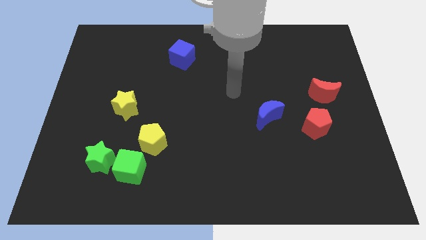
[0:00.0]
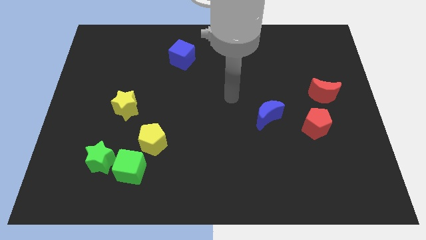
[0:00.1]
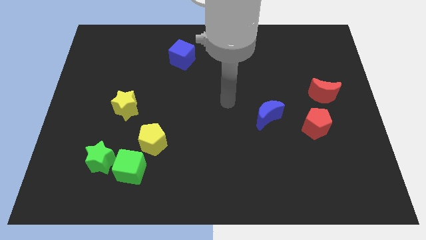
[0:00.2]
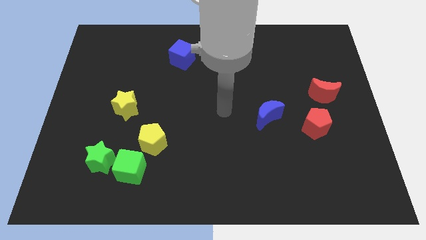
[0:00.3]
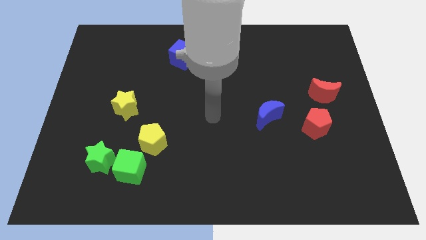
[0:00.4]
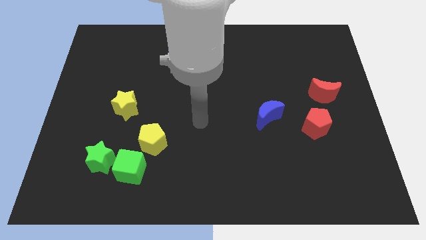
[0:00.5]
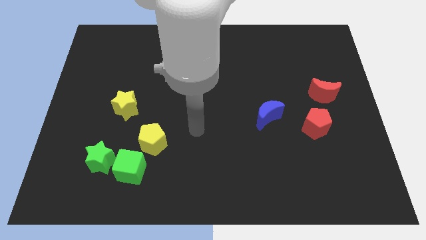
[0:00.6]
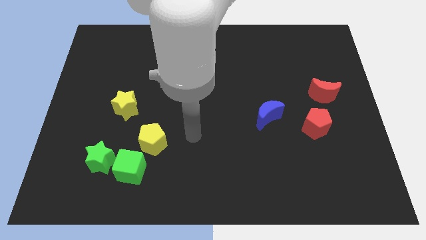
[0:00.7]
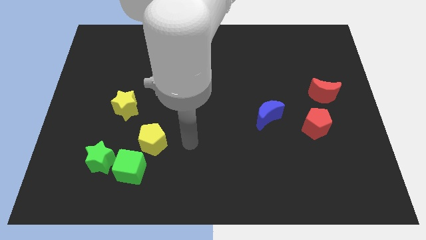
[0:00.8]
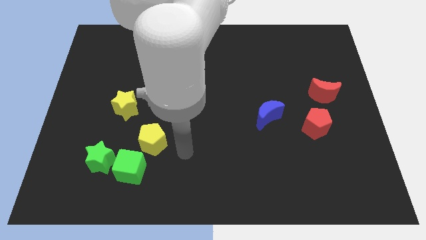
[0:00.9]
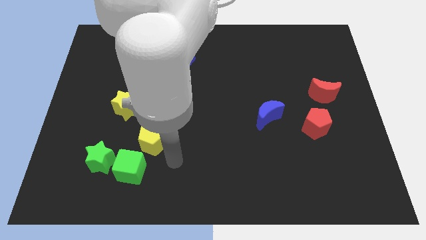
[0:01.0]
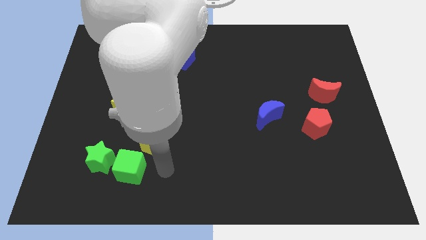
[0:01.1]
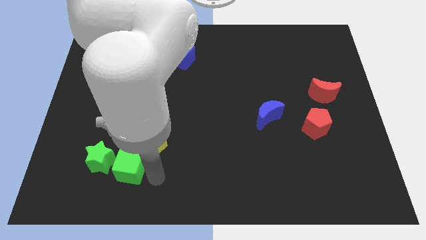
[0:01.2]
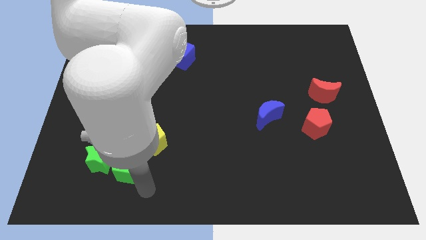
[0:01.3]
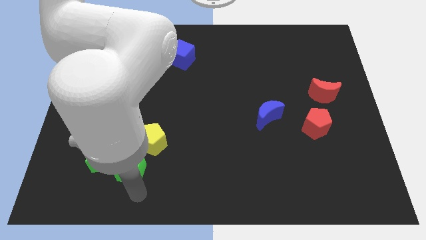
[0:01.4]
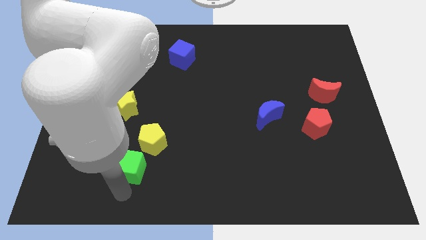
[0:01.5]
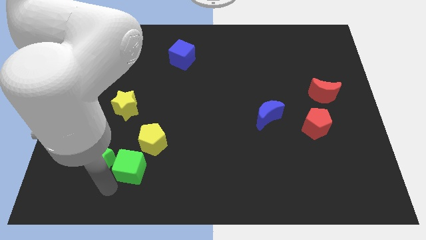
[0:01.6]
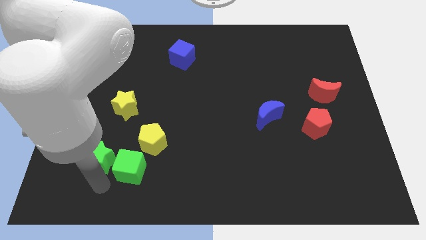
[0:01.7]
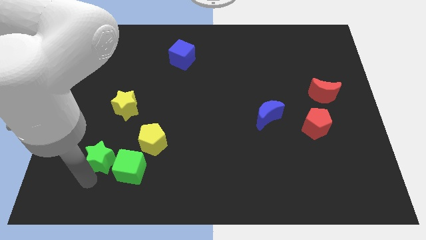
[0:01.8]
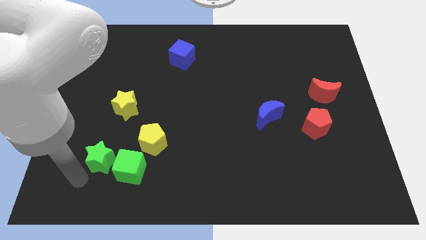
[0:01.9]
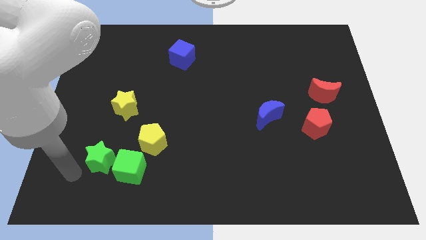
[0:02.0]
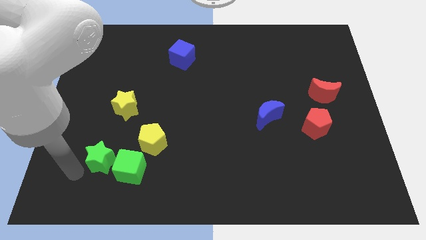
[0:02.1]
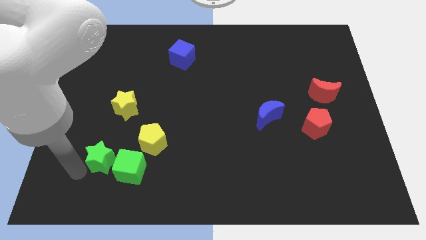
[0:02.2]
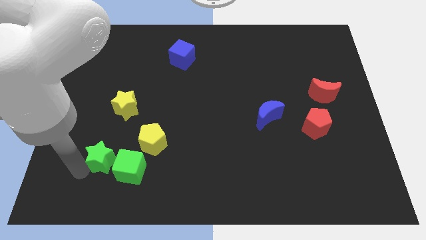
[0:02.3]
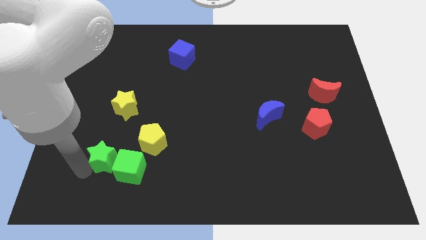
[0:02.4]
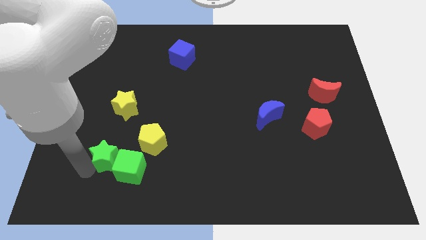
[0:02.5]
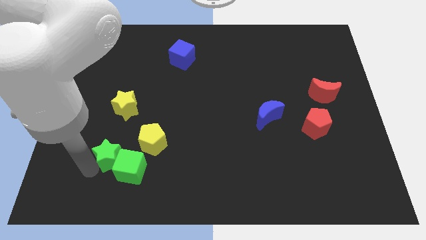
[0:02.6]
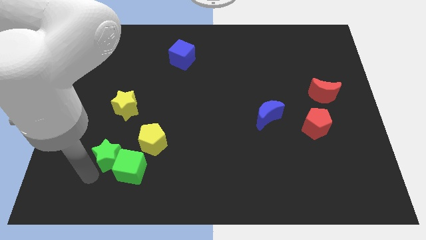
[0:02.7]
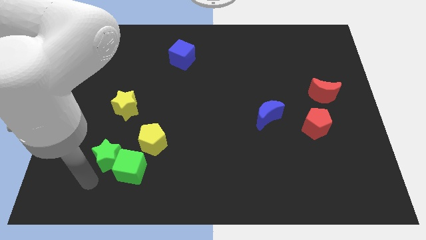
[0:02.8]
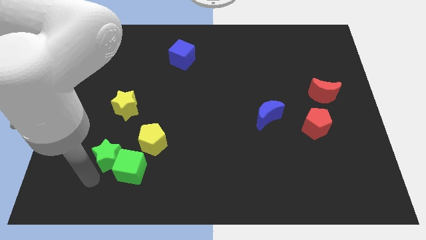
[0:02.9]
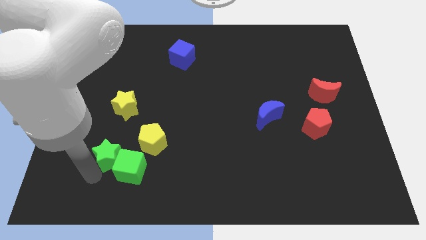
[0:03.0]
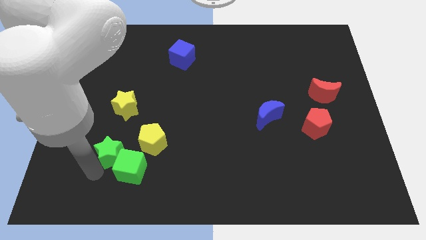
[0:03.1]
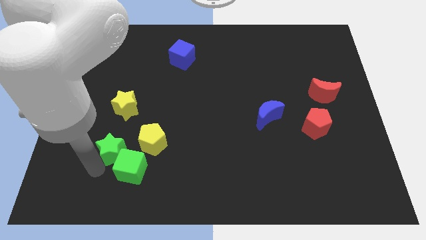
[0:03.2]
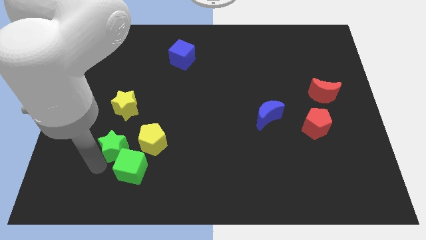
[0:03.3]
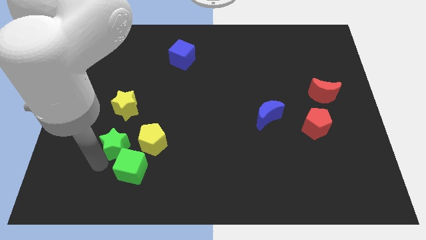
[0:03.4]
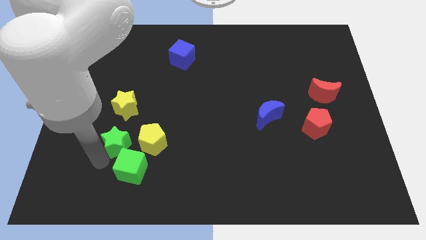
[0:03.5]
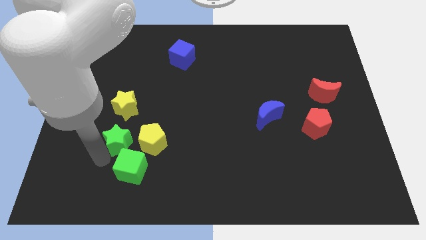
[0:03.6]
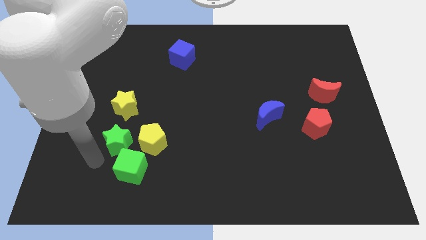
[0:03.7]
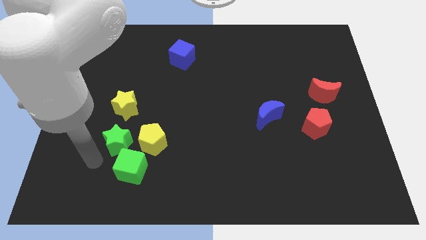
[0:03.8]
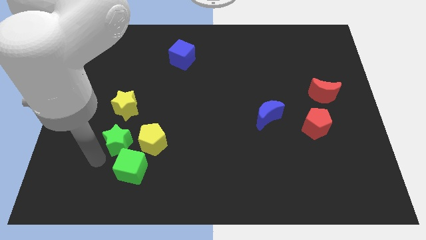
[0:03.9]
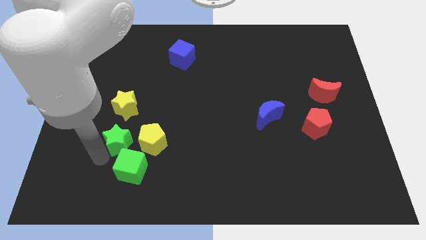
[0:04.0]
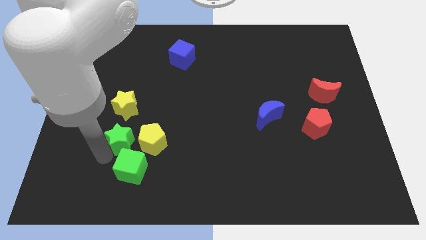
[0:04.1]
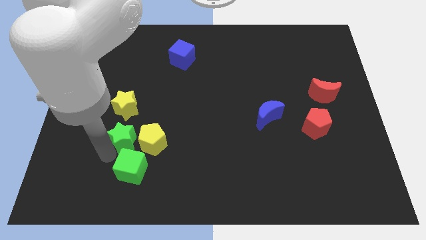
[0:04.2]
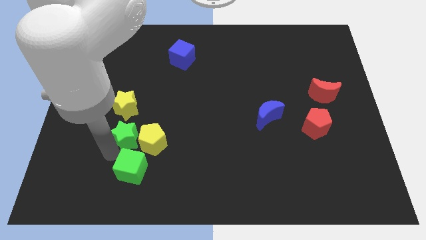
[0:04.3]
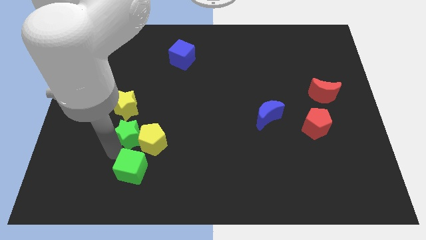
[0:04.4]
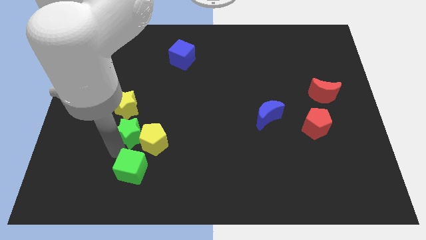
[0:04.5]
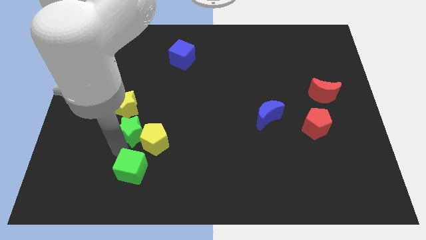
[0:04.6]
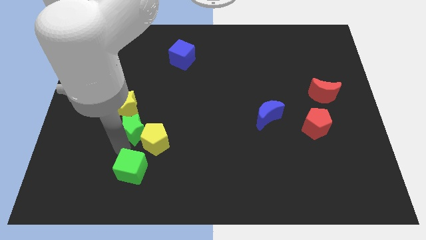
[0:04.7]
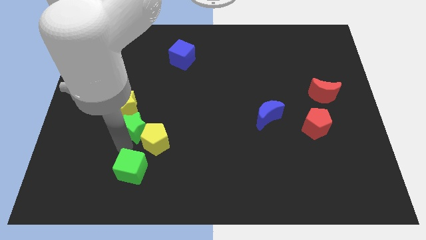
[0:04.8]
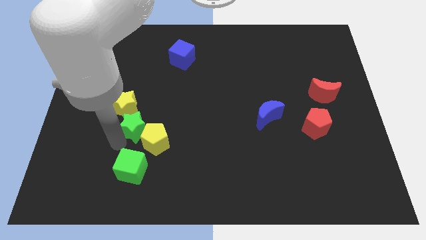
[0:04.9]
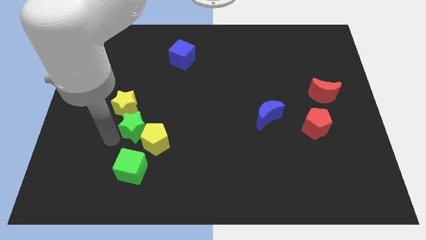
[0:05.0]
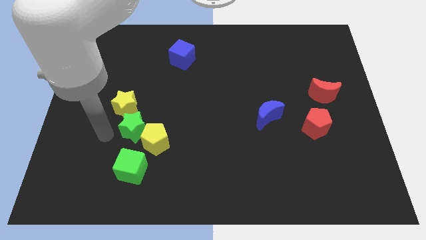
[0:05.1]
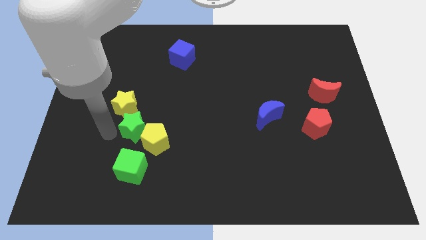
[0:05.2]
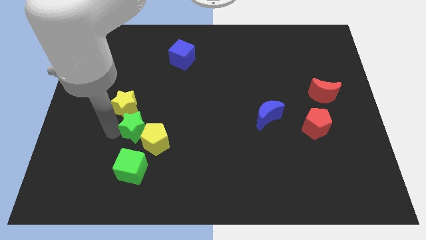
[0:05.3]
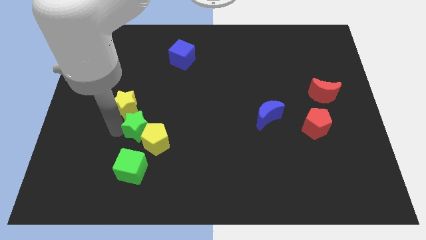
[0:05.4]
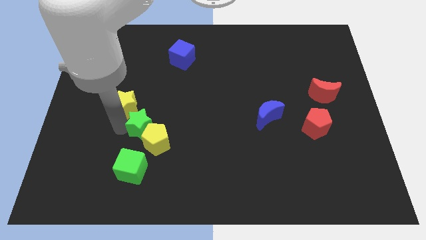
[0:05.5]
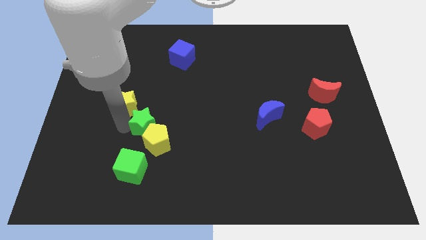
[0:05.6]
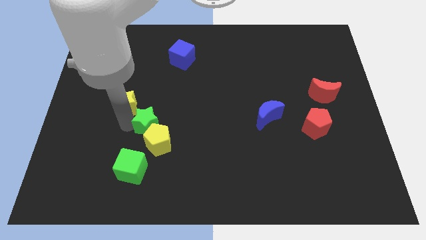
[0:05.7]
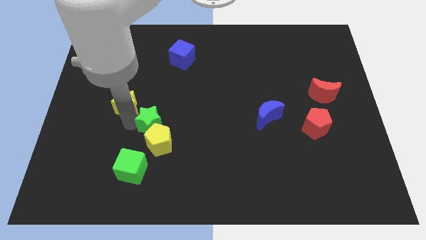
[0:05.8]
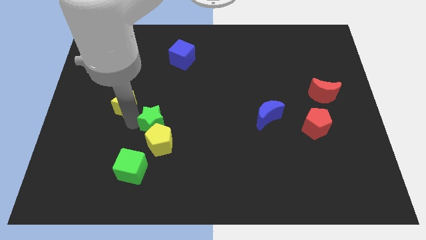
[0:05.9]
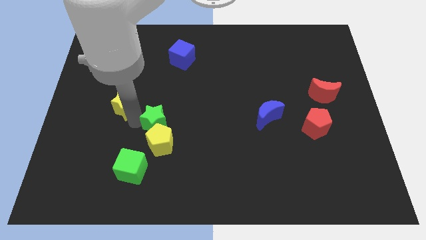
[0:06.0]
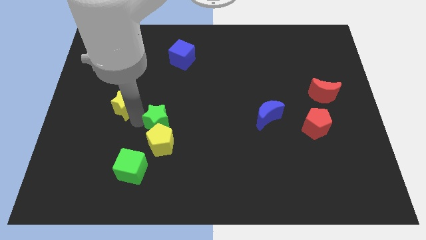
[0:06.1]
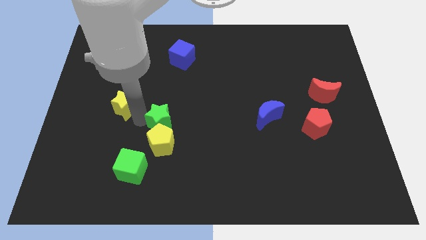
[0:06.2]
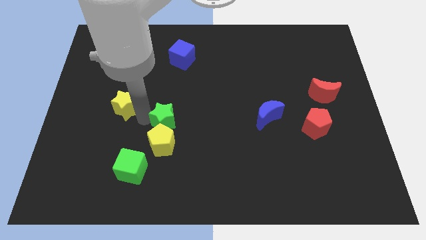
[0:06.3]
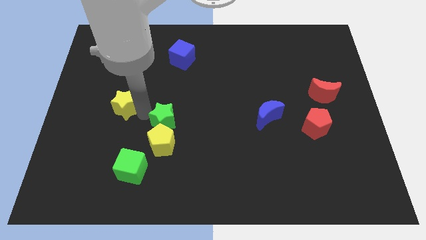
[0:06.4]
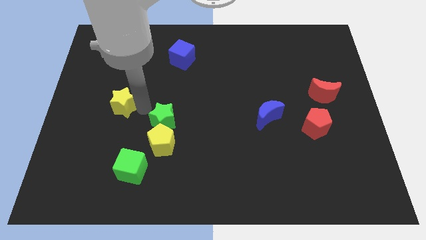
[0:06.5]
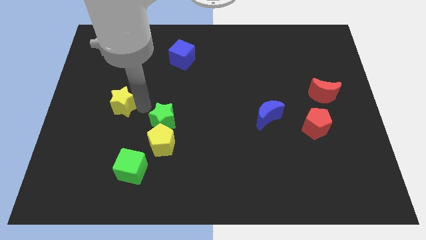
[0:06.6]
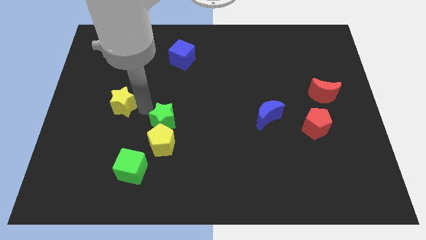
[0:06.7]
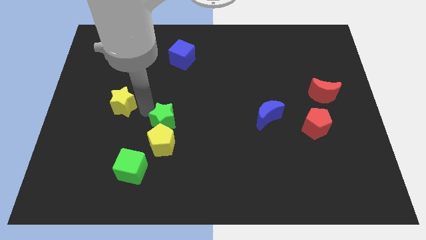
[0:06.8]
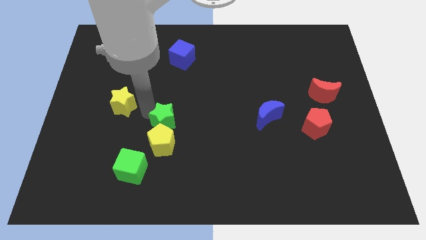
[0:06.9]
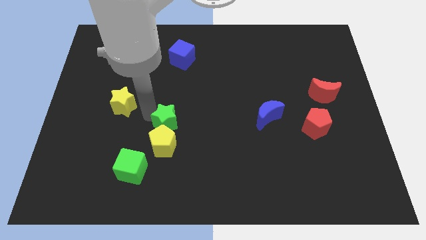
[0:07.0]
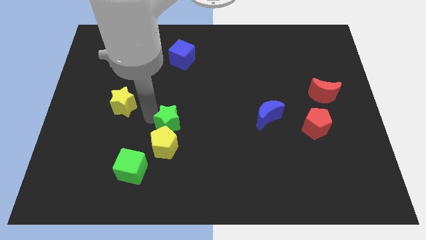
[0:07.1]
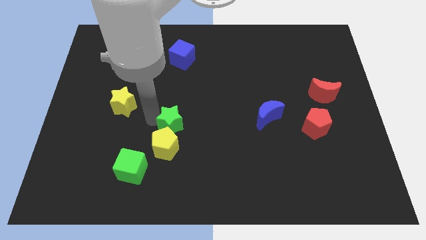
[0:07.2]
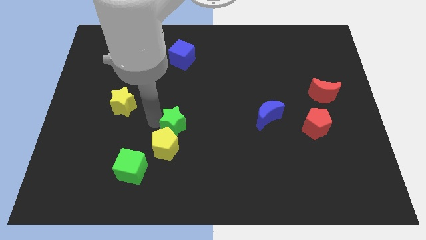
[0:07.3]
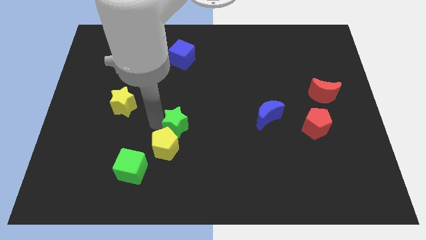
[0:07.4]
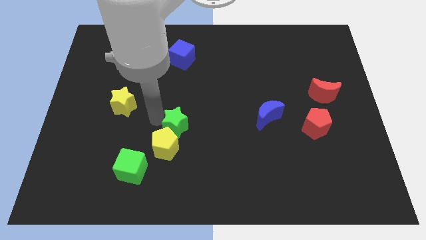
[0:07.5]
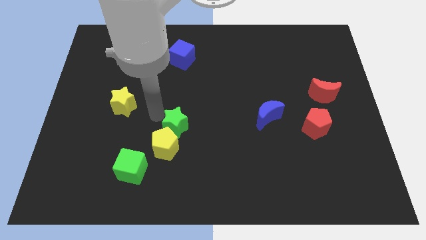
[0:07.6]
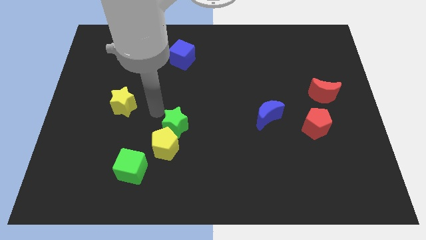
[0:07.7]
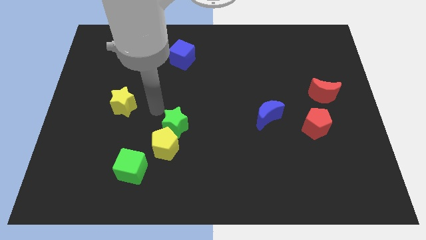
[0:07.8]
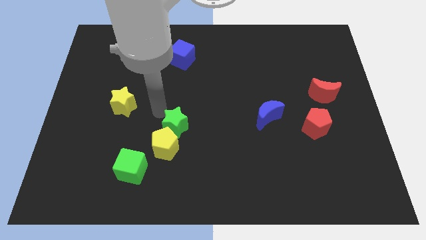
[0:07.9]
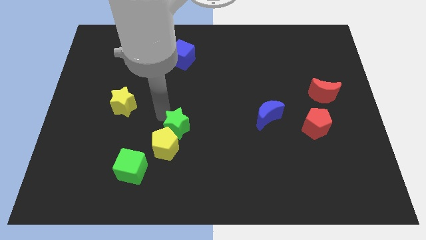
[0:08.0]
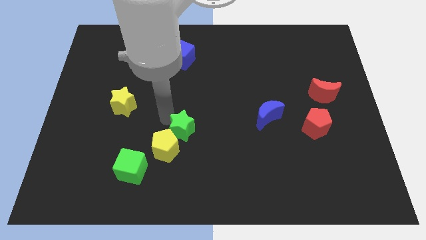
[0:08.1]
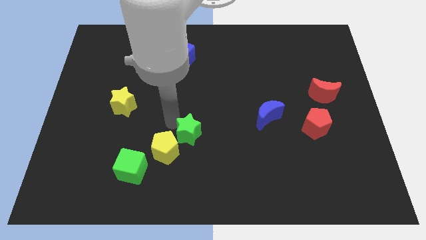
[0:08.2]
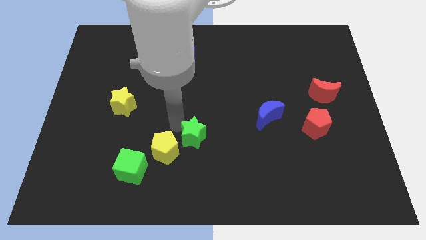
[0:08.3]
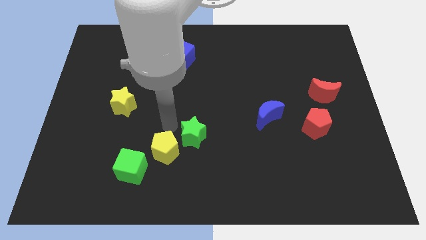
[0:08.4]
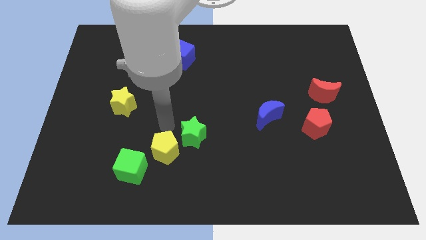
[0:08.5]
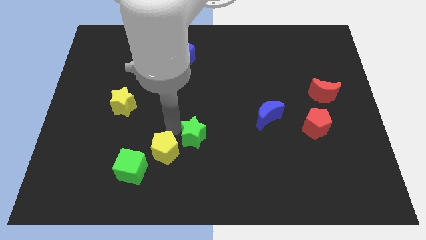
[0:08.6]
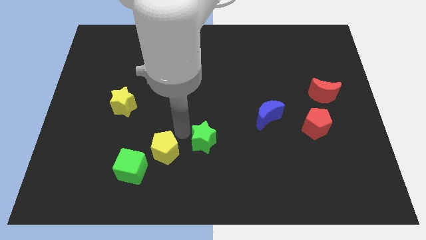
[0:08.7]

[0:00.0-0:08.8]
push the green star right
